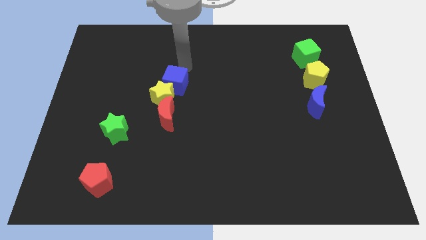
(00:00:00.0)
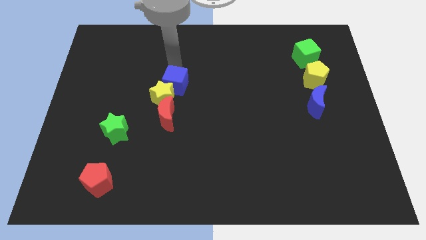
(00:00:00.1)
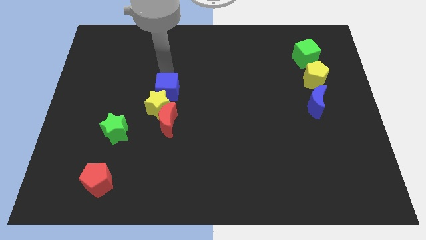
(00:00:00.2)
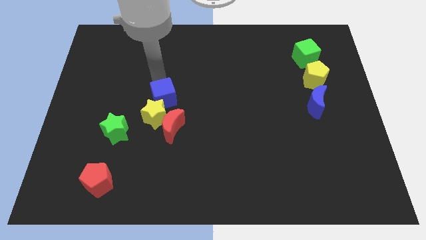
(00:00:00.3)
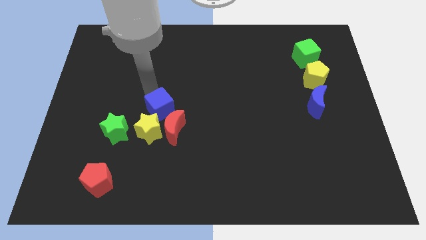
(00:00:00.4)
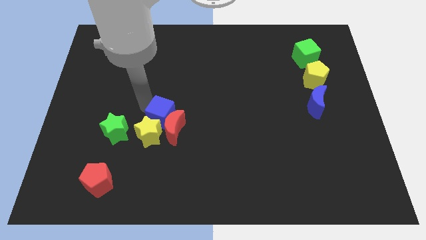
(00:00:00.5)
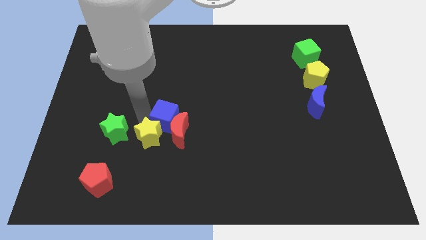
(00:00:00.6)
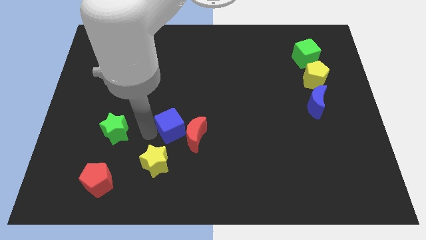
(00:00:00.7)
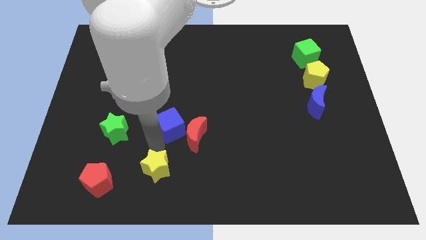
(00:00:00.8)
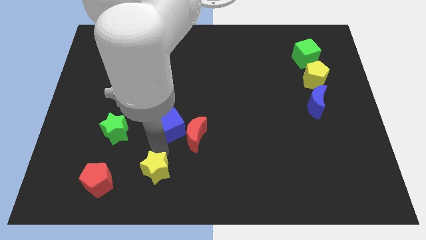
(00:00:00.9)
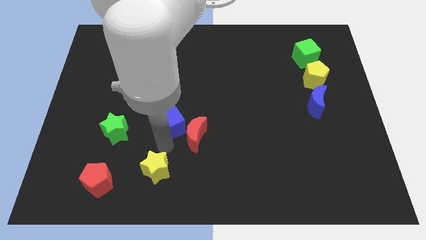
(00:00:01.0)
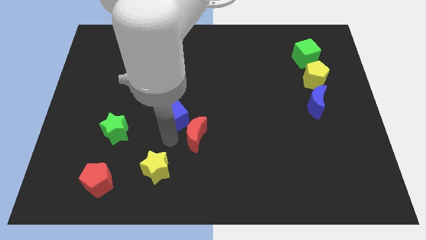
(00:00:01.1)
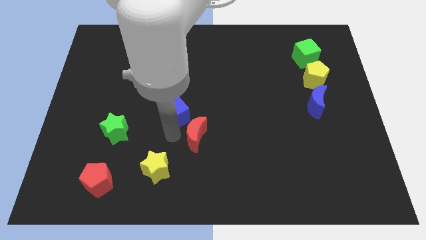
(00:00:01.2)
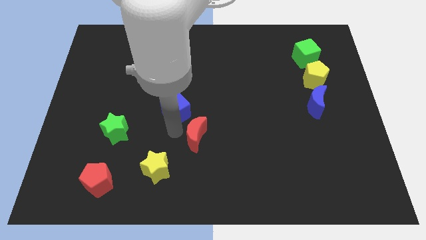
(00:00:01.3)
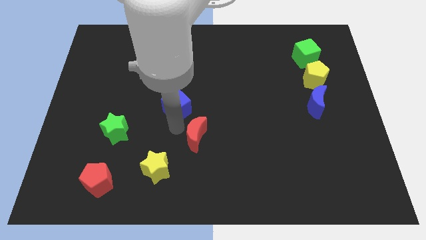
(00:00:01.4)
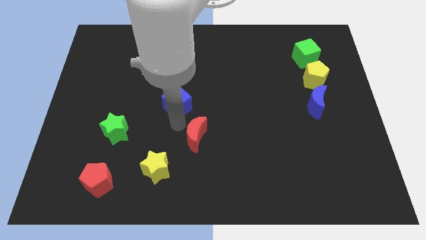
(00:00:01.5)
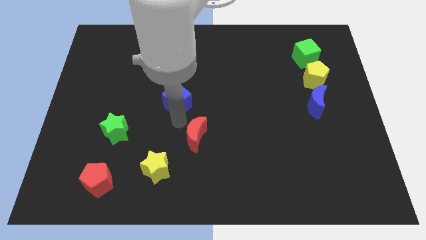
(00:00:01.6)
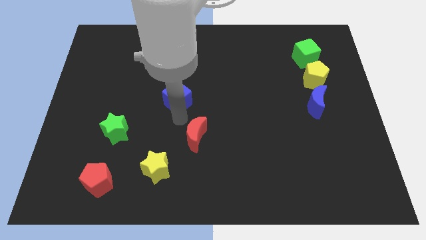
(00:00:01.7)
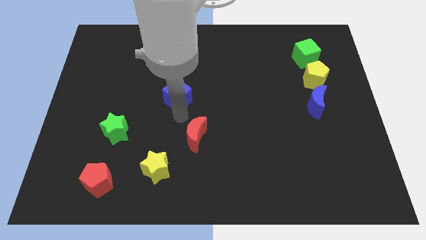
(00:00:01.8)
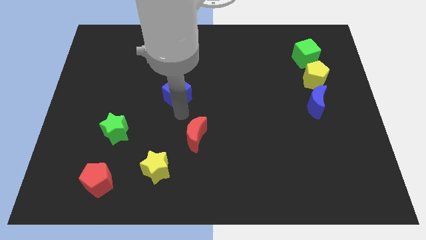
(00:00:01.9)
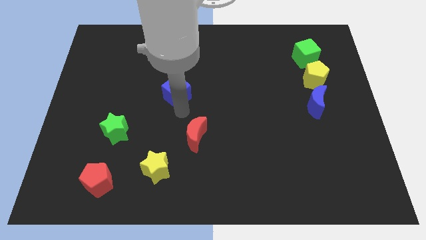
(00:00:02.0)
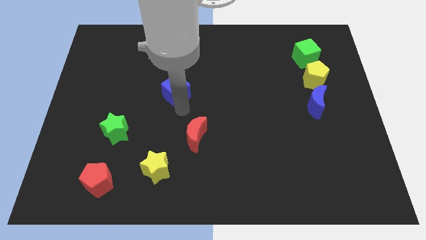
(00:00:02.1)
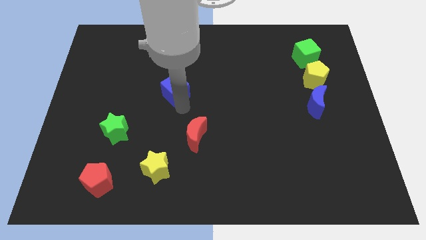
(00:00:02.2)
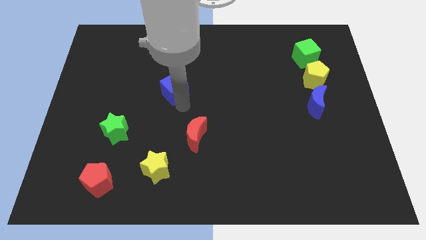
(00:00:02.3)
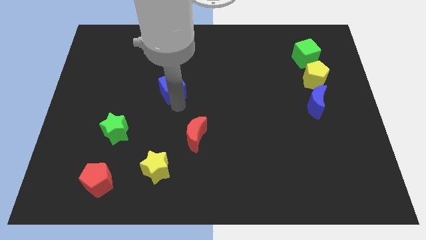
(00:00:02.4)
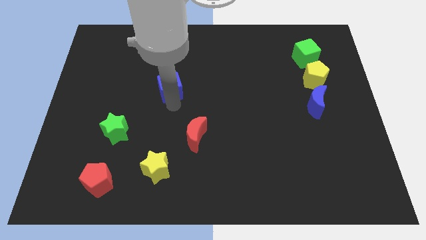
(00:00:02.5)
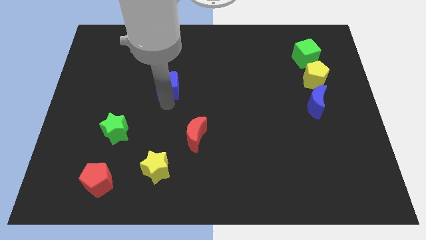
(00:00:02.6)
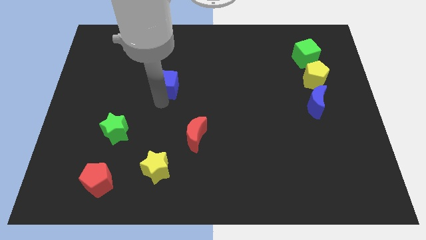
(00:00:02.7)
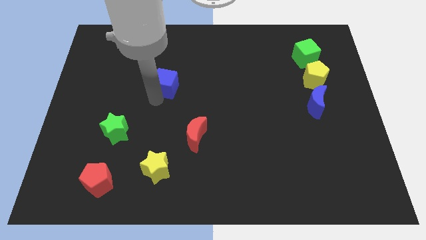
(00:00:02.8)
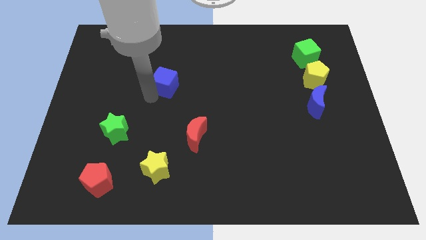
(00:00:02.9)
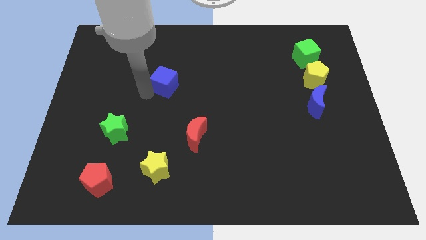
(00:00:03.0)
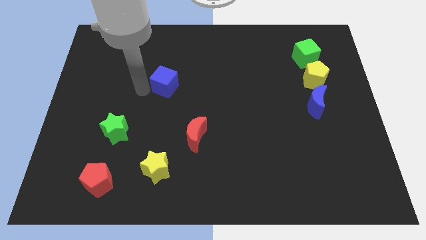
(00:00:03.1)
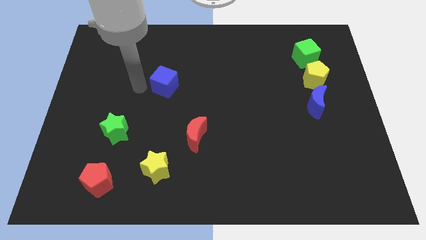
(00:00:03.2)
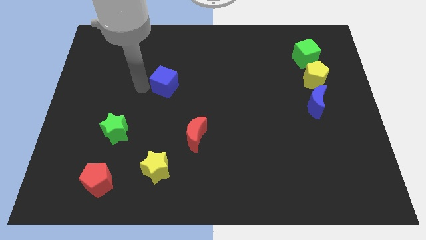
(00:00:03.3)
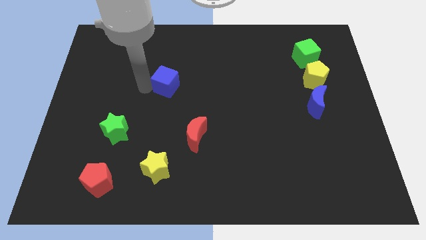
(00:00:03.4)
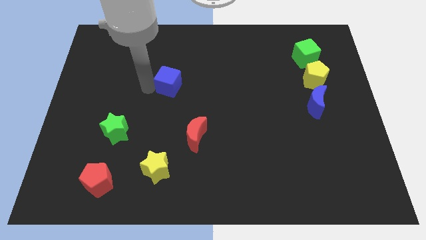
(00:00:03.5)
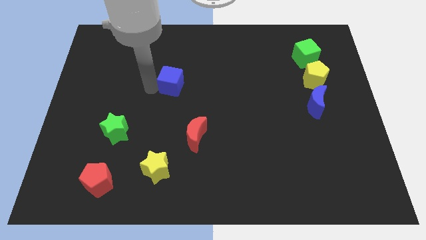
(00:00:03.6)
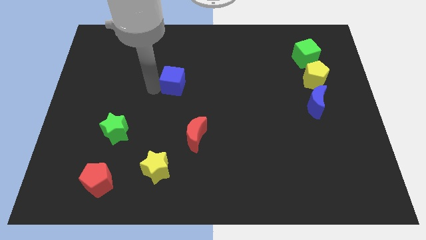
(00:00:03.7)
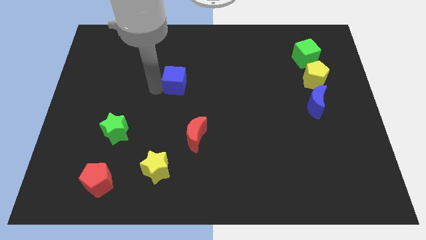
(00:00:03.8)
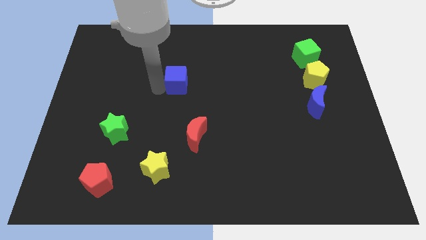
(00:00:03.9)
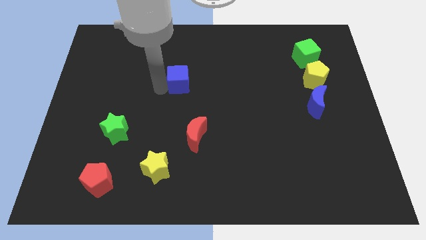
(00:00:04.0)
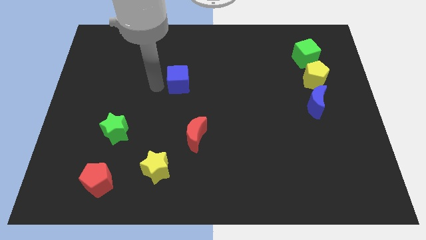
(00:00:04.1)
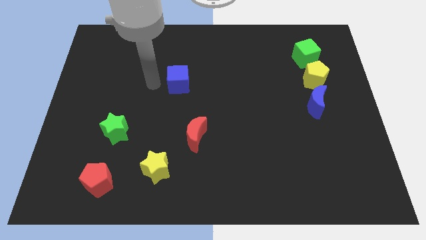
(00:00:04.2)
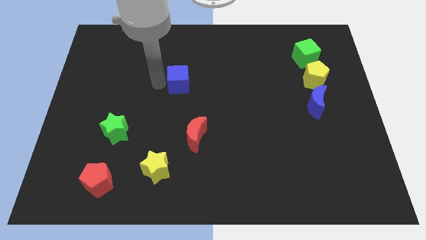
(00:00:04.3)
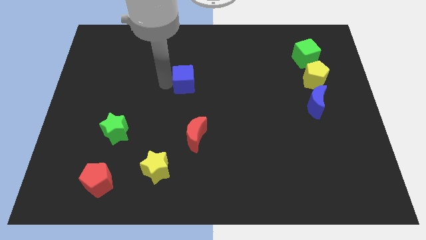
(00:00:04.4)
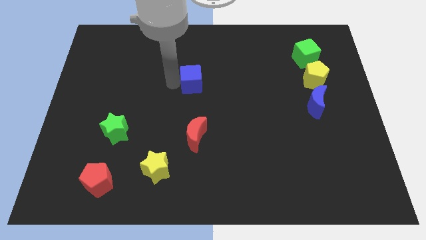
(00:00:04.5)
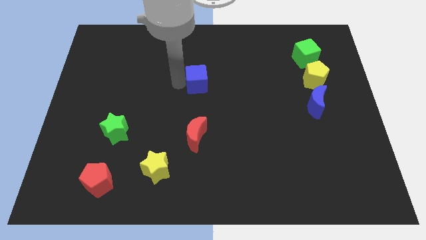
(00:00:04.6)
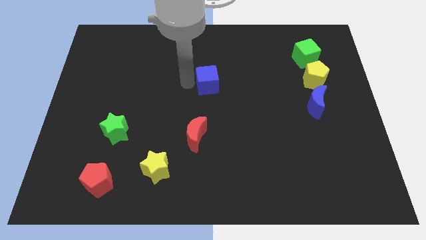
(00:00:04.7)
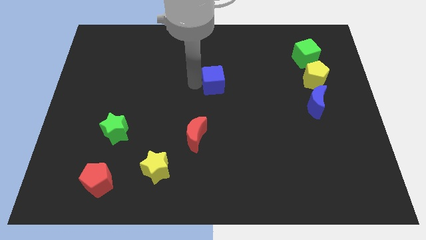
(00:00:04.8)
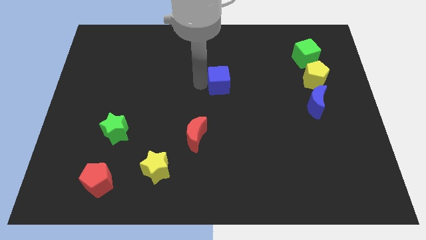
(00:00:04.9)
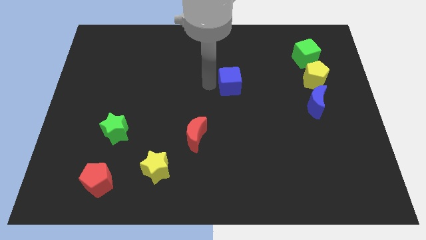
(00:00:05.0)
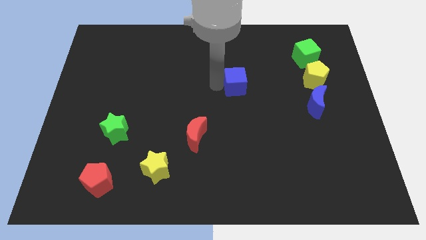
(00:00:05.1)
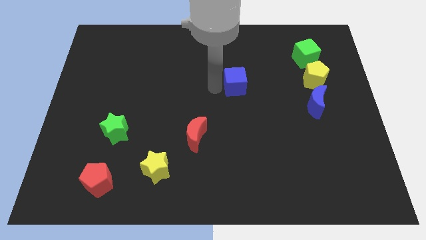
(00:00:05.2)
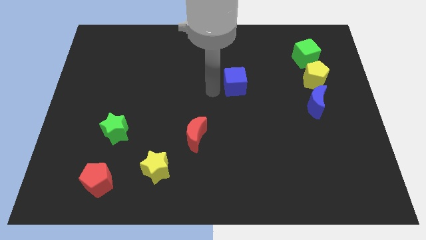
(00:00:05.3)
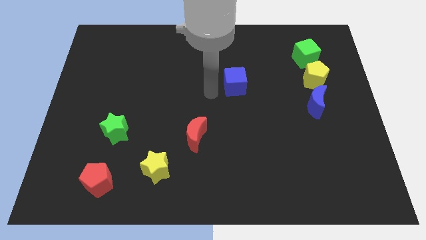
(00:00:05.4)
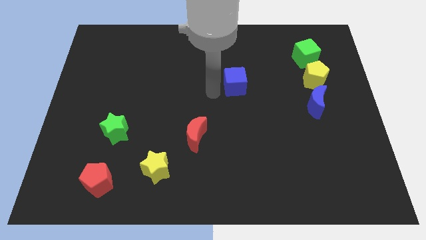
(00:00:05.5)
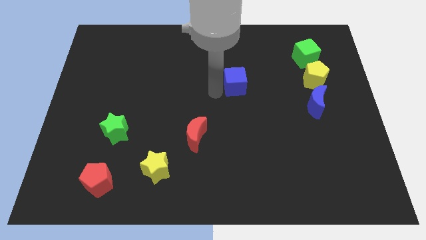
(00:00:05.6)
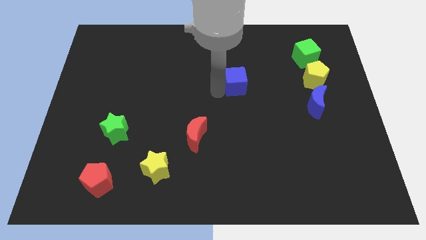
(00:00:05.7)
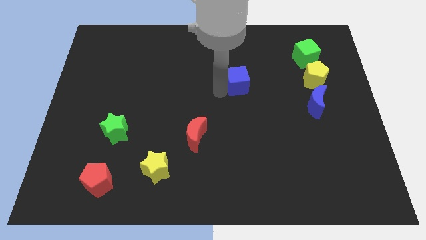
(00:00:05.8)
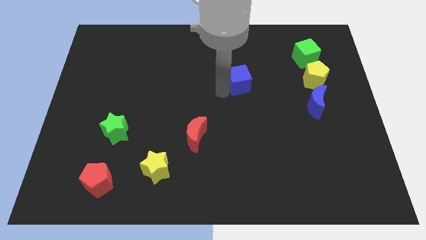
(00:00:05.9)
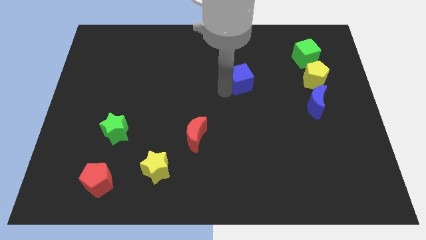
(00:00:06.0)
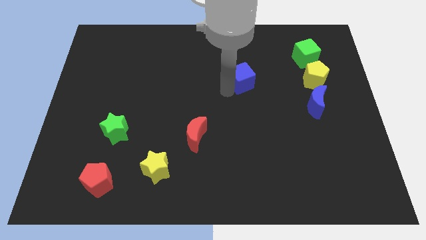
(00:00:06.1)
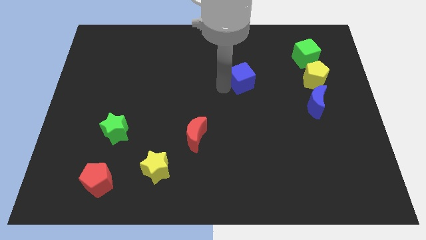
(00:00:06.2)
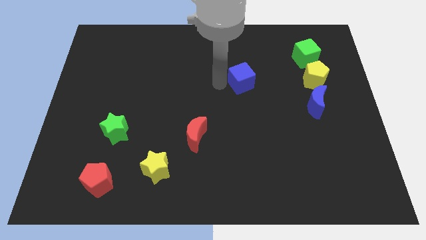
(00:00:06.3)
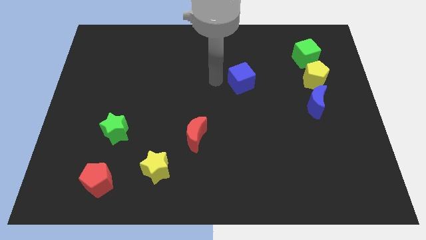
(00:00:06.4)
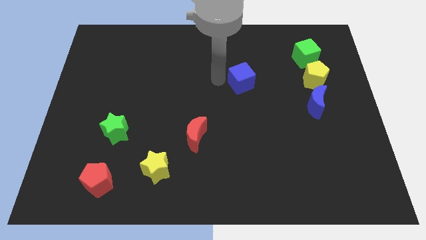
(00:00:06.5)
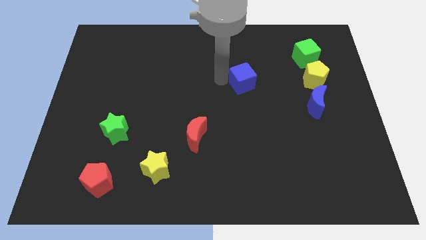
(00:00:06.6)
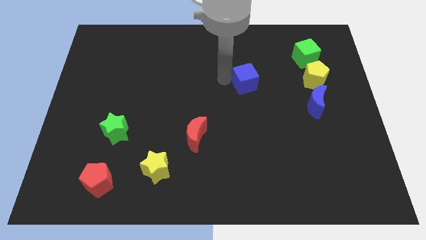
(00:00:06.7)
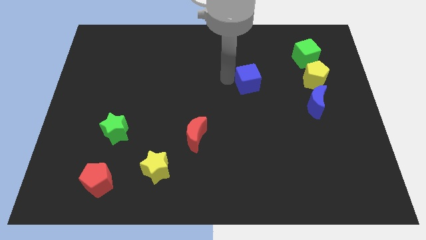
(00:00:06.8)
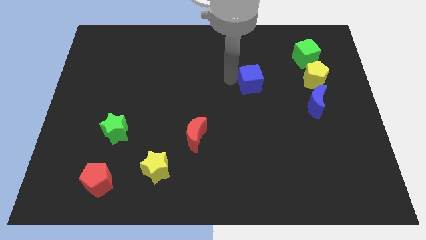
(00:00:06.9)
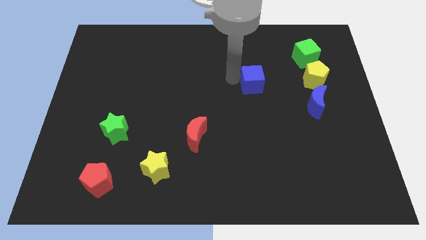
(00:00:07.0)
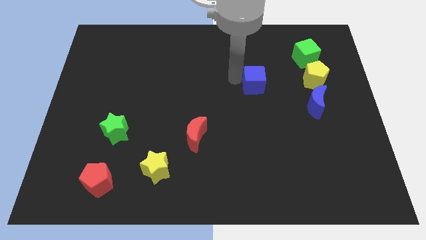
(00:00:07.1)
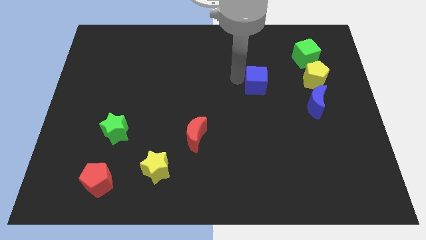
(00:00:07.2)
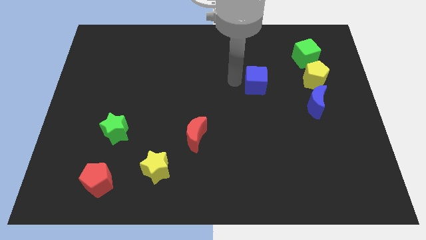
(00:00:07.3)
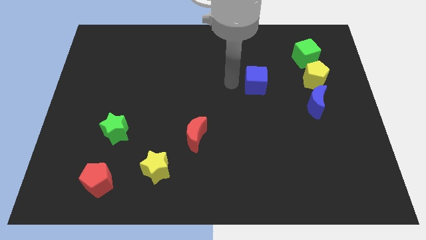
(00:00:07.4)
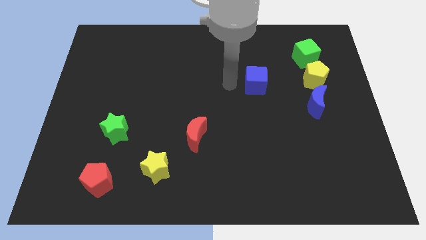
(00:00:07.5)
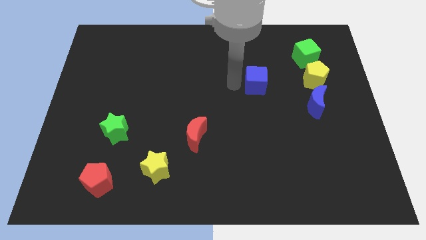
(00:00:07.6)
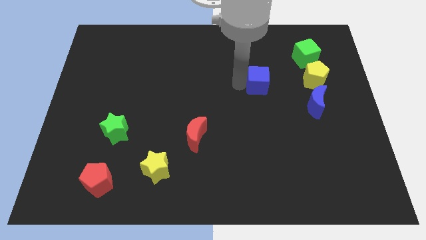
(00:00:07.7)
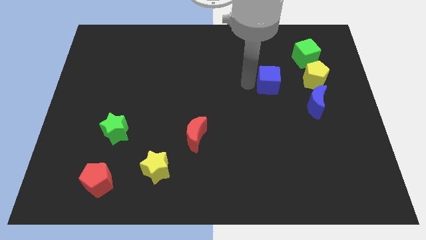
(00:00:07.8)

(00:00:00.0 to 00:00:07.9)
push the blue cube diagonally up and to the left of the blue moon
